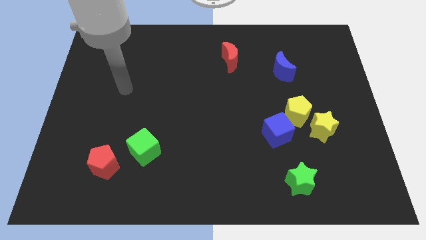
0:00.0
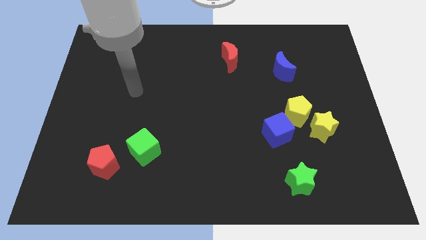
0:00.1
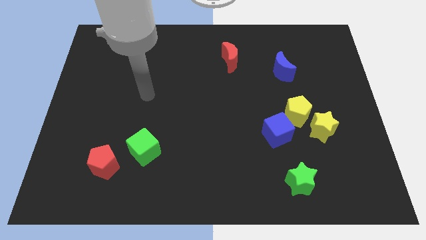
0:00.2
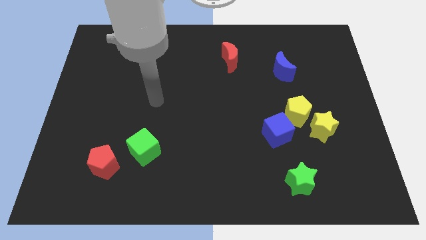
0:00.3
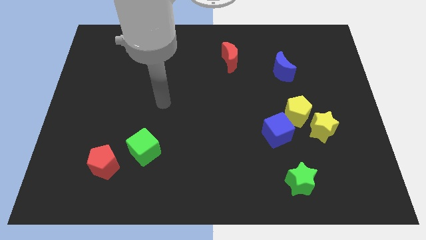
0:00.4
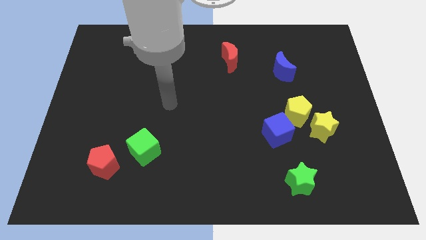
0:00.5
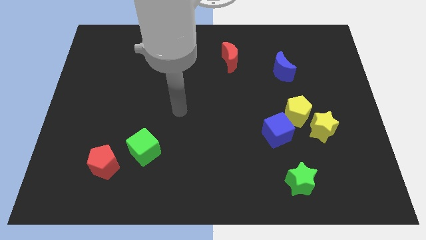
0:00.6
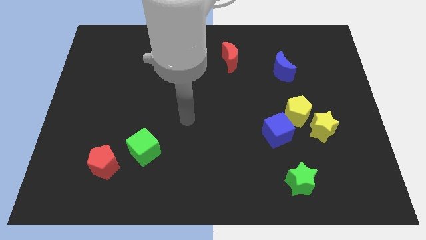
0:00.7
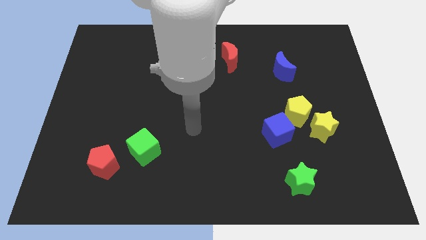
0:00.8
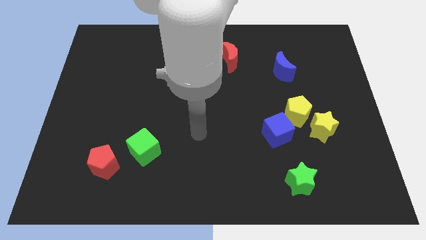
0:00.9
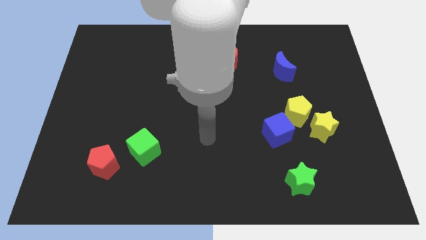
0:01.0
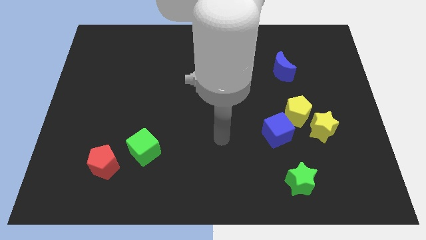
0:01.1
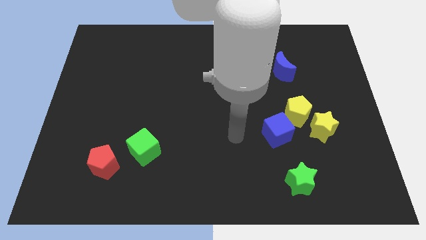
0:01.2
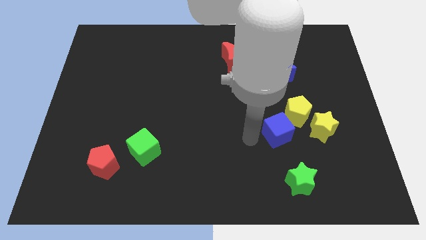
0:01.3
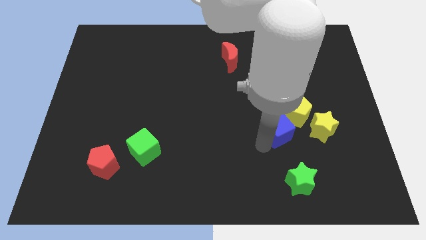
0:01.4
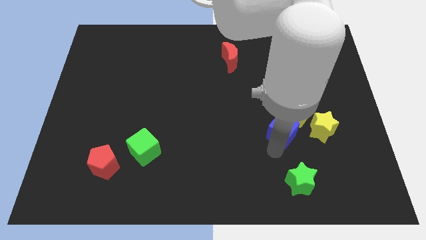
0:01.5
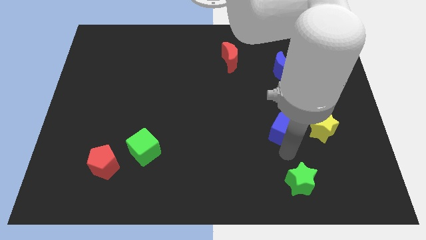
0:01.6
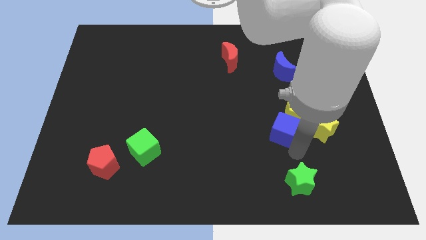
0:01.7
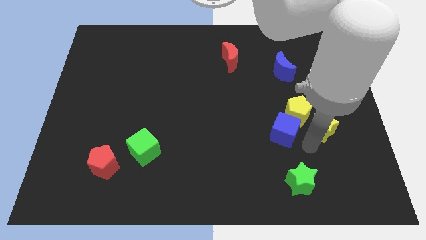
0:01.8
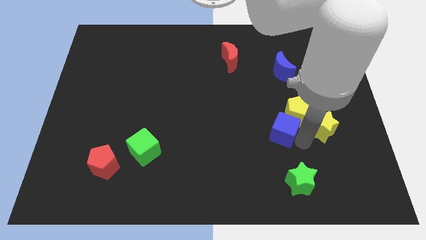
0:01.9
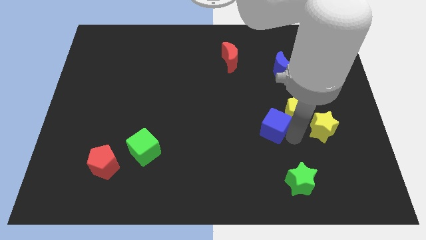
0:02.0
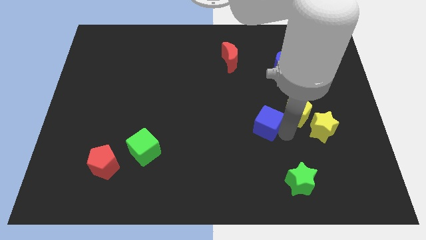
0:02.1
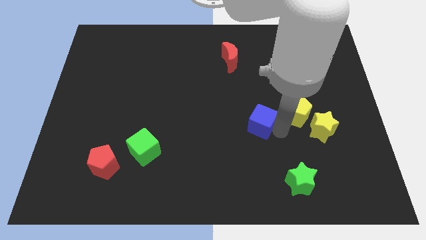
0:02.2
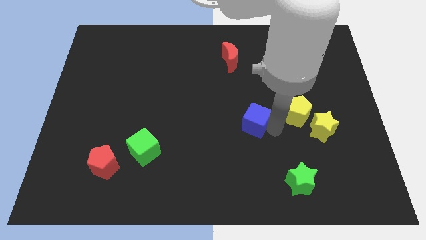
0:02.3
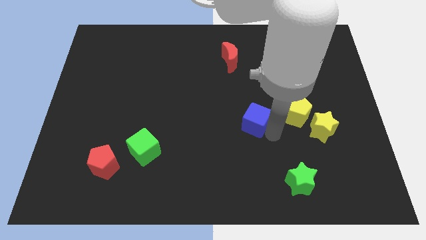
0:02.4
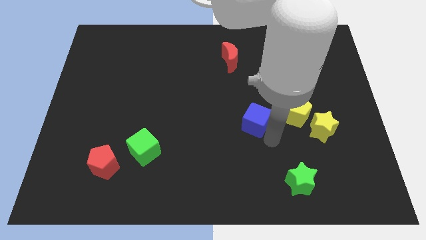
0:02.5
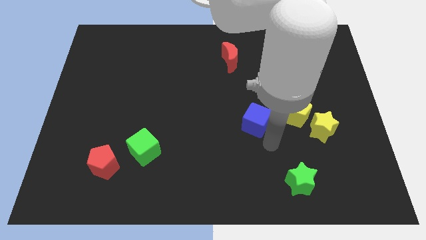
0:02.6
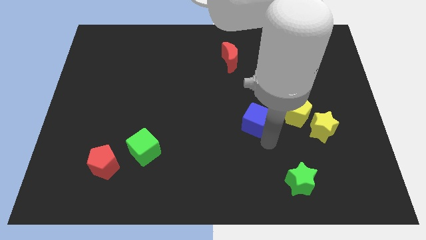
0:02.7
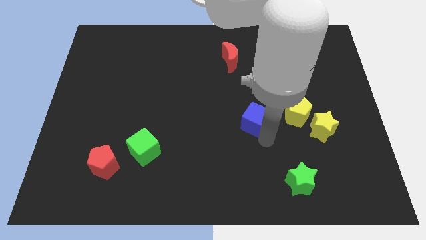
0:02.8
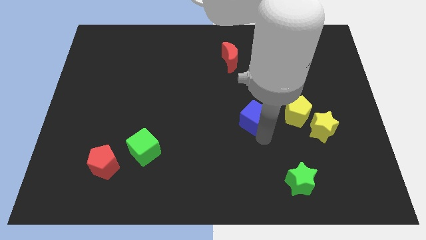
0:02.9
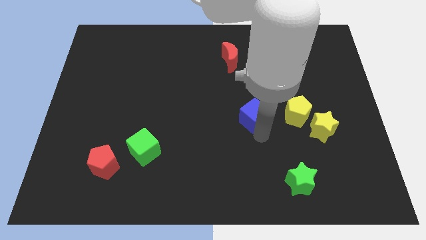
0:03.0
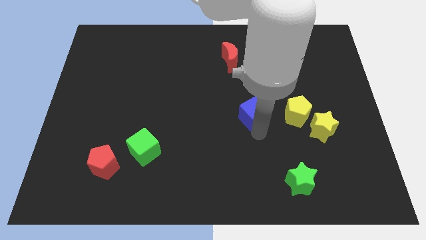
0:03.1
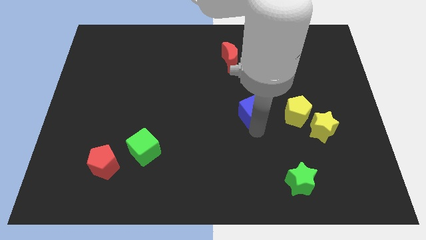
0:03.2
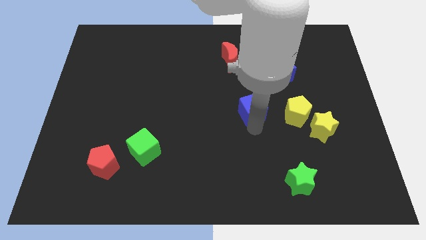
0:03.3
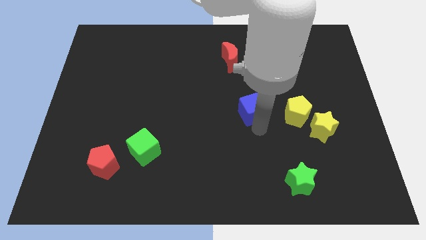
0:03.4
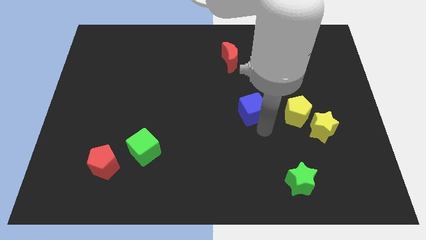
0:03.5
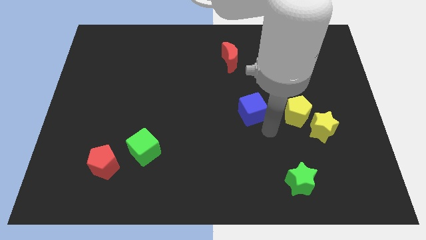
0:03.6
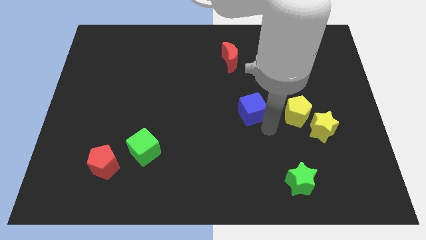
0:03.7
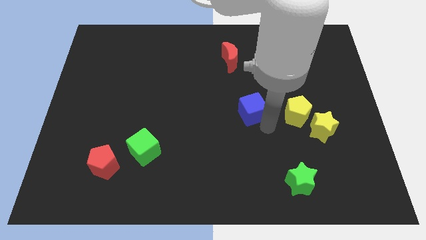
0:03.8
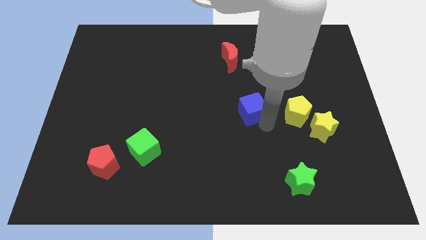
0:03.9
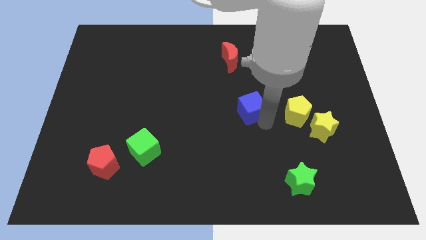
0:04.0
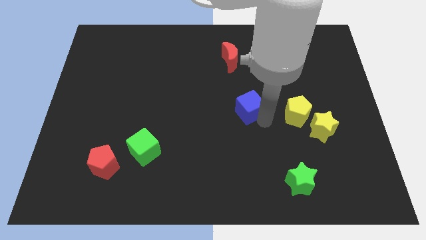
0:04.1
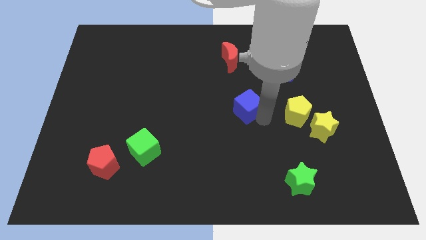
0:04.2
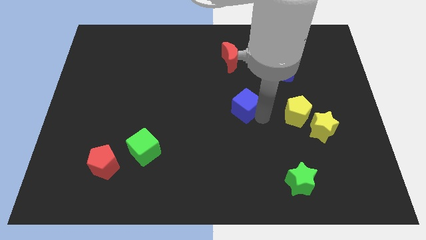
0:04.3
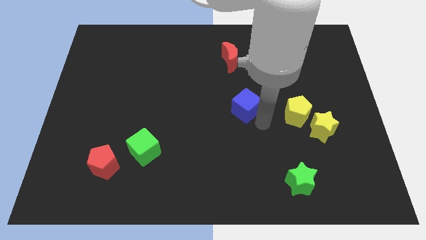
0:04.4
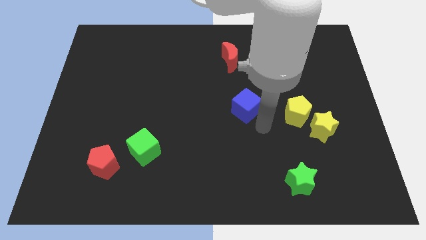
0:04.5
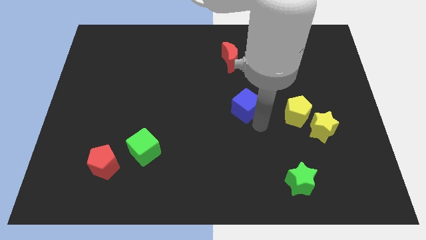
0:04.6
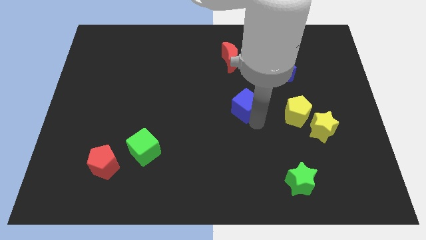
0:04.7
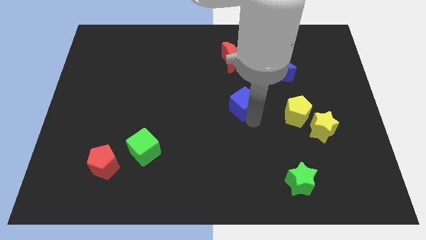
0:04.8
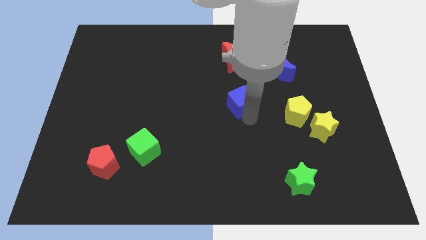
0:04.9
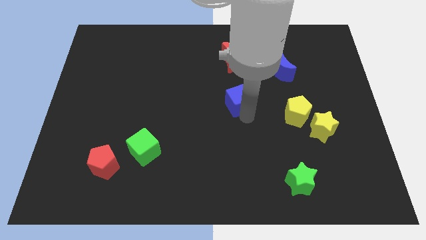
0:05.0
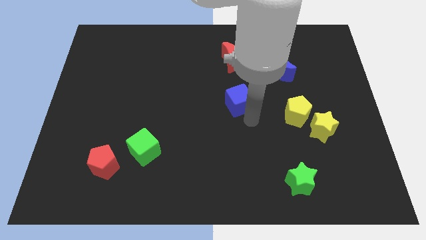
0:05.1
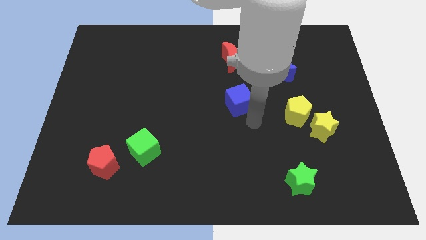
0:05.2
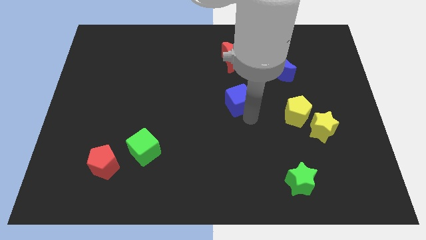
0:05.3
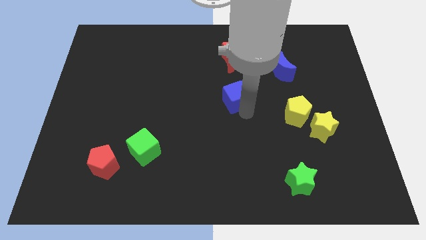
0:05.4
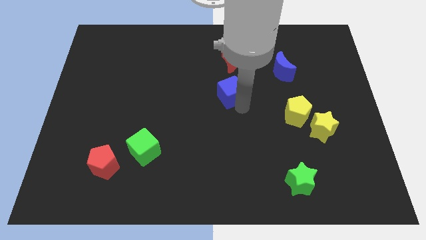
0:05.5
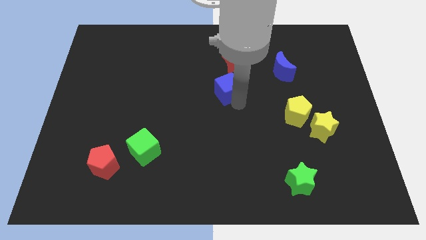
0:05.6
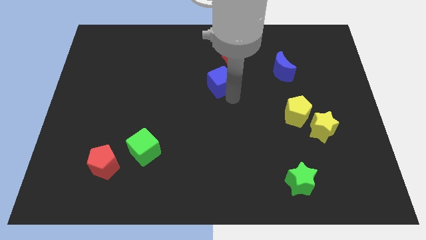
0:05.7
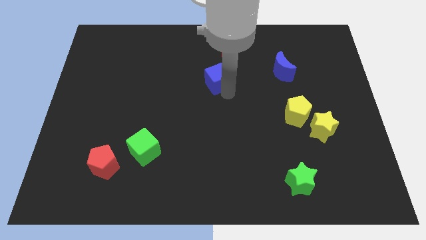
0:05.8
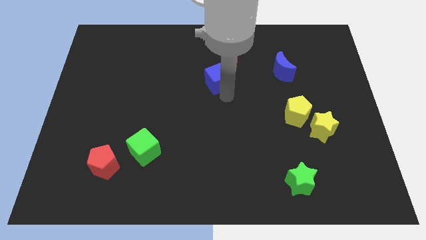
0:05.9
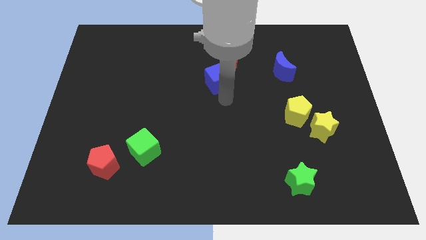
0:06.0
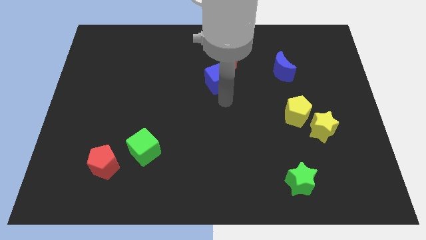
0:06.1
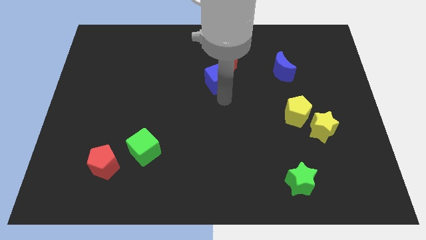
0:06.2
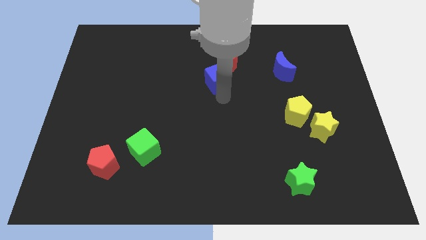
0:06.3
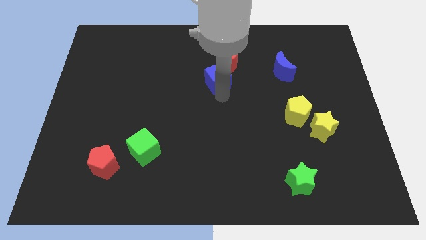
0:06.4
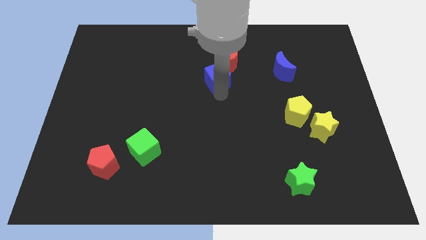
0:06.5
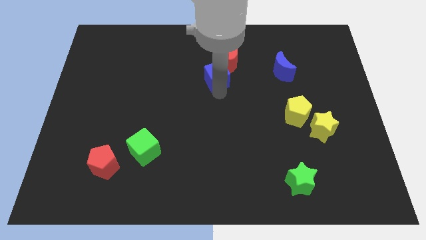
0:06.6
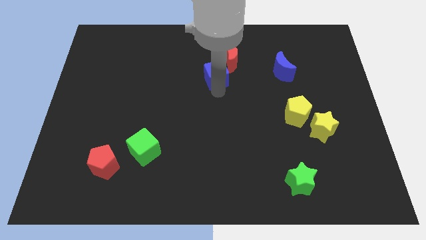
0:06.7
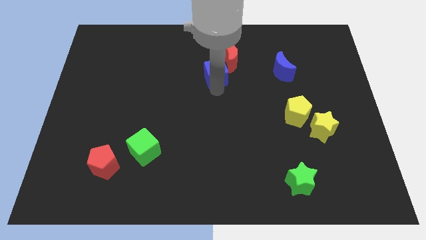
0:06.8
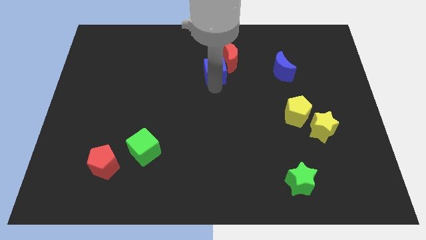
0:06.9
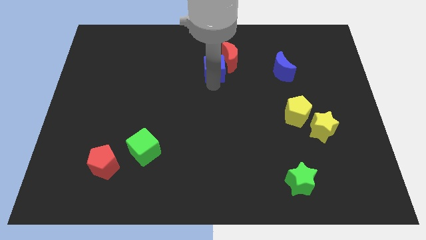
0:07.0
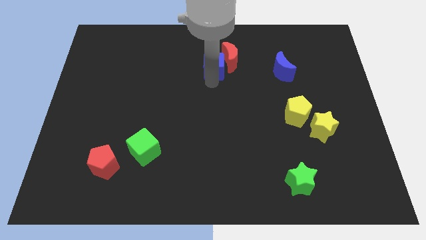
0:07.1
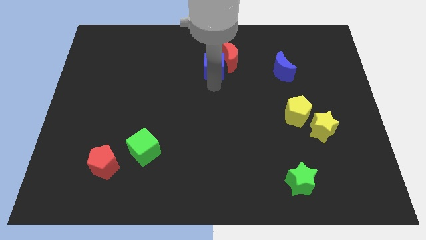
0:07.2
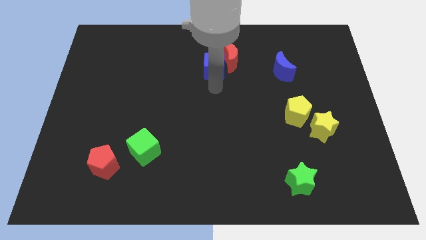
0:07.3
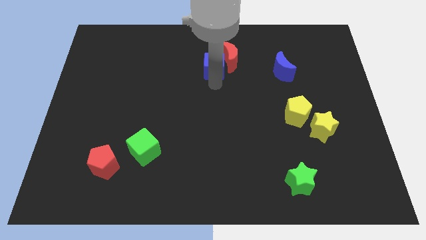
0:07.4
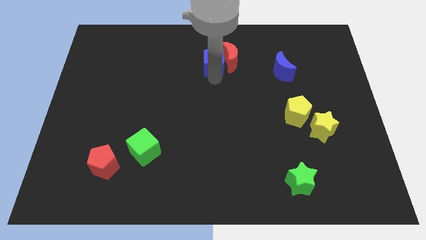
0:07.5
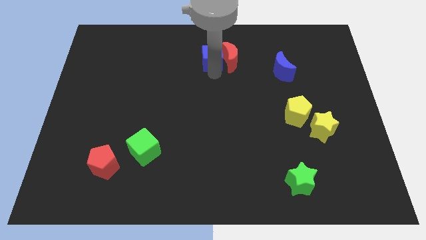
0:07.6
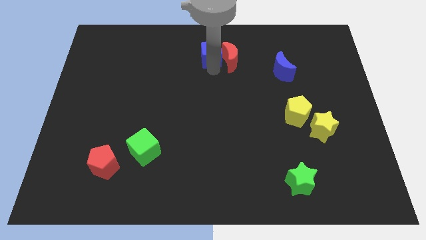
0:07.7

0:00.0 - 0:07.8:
move the blue cube to the top side
